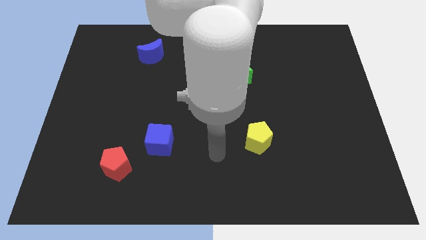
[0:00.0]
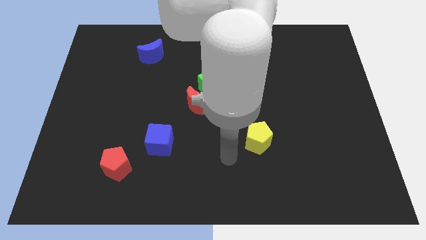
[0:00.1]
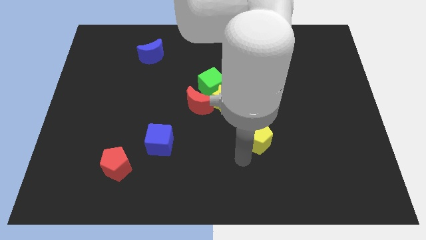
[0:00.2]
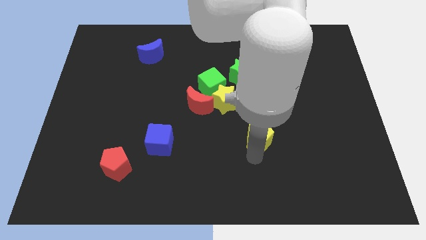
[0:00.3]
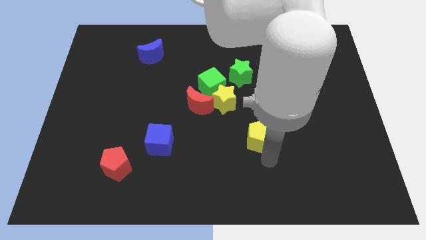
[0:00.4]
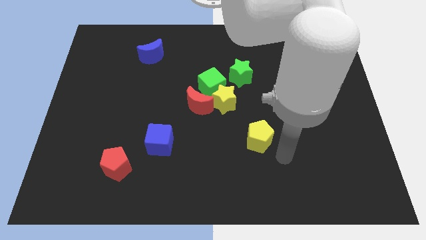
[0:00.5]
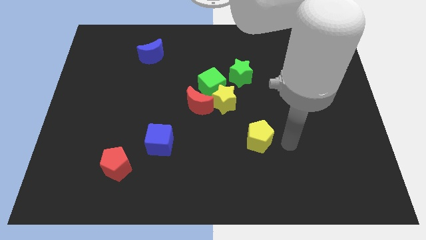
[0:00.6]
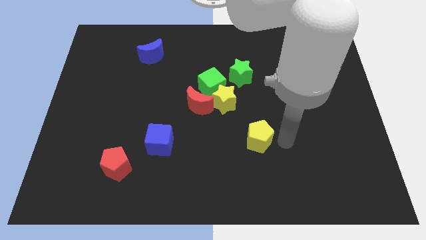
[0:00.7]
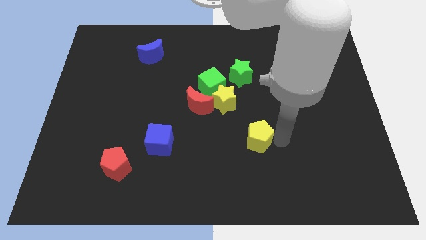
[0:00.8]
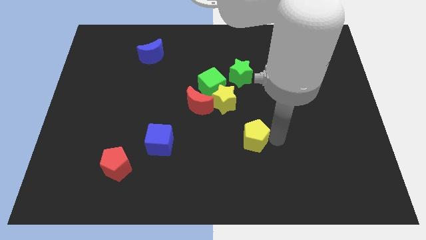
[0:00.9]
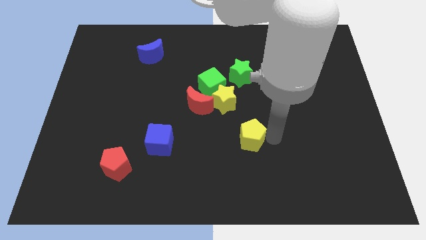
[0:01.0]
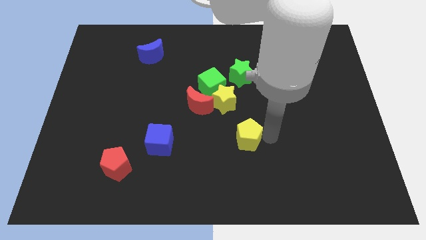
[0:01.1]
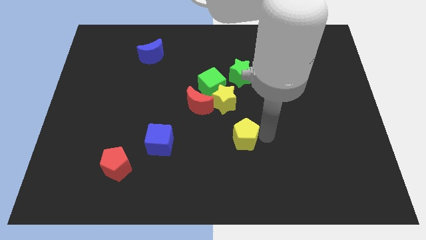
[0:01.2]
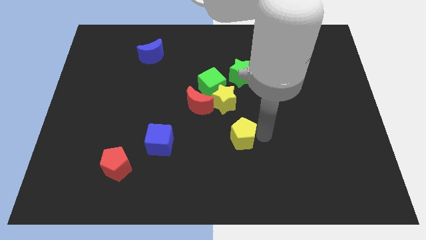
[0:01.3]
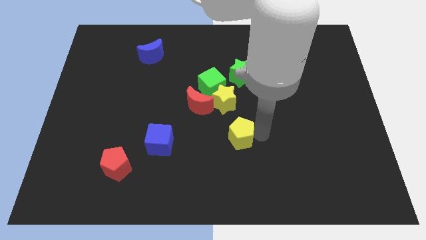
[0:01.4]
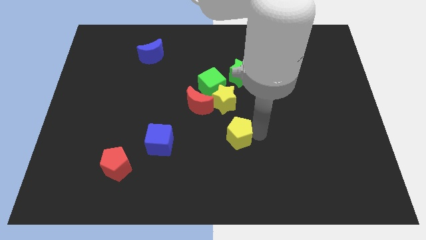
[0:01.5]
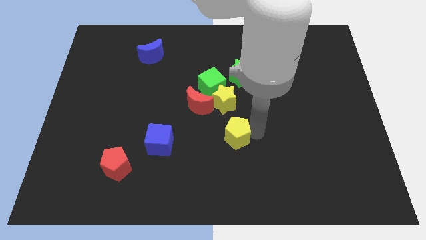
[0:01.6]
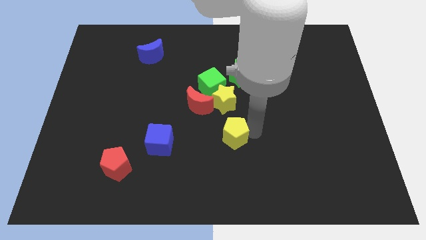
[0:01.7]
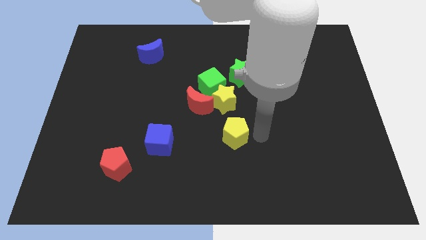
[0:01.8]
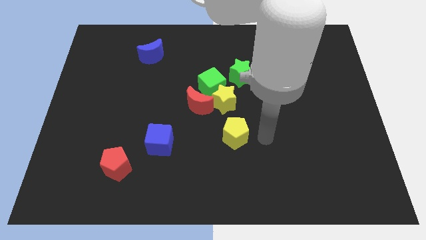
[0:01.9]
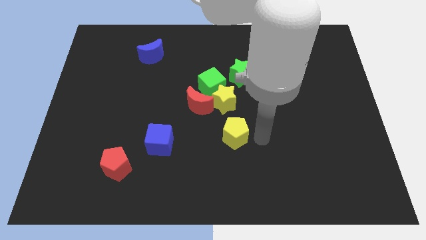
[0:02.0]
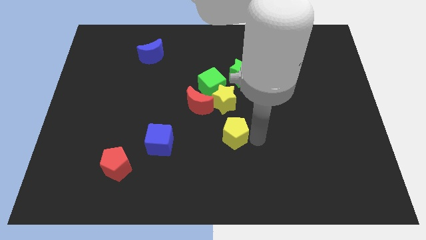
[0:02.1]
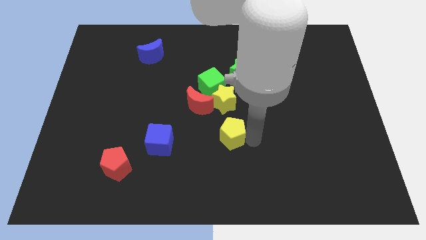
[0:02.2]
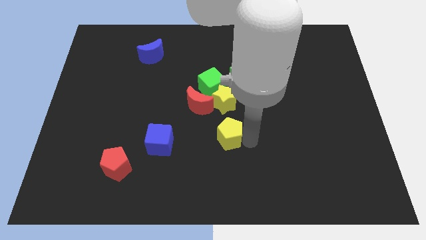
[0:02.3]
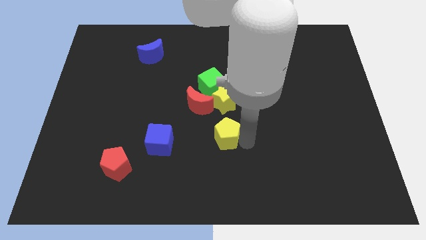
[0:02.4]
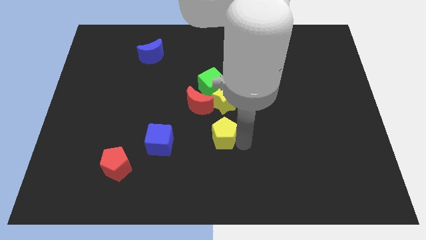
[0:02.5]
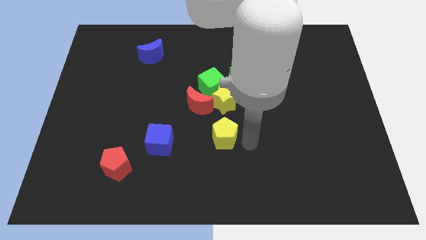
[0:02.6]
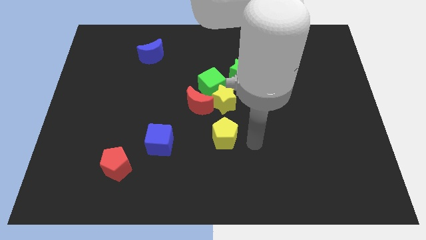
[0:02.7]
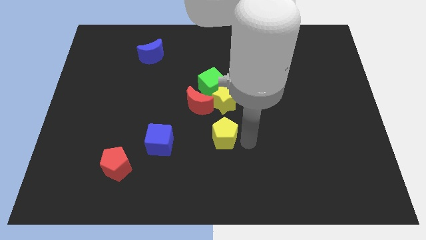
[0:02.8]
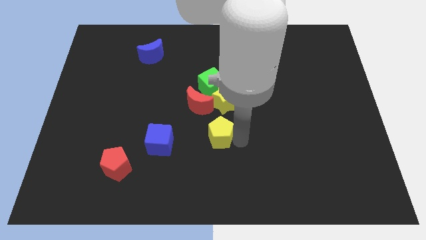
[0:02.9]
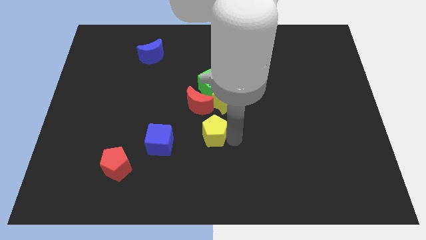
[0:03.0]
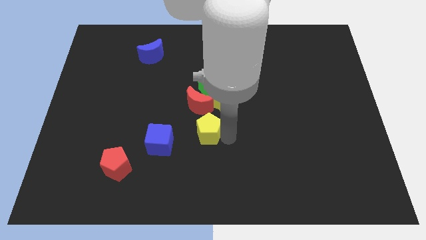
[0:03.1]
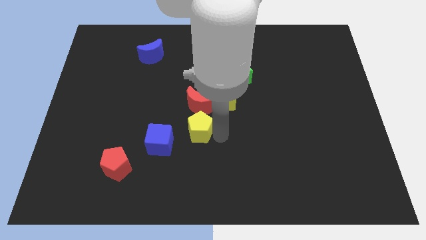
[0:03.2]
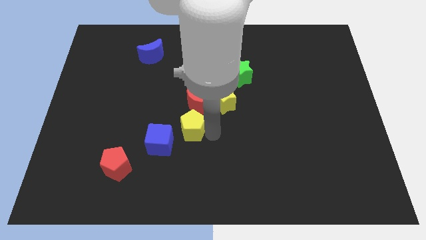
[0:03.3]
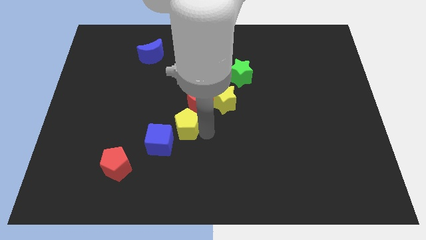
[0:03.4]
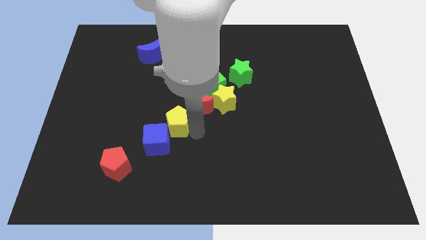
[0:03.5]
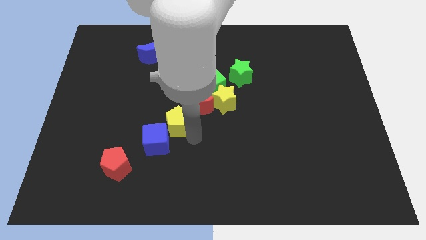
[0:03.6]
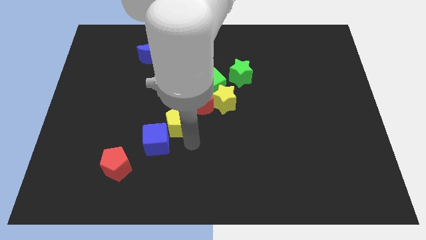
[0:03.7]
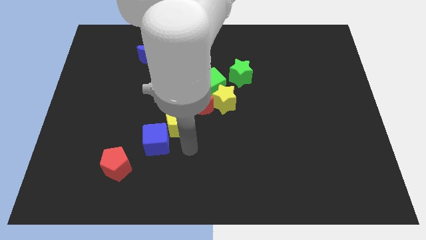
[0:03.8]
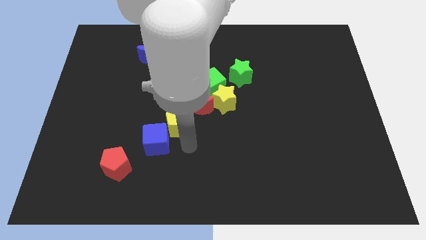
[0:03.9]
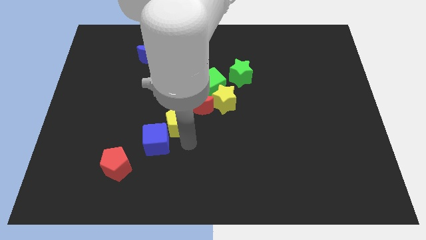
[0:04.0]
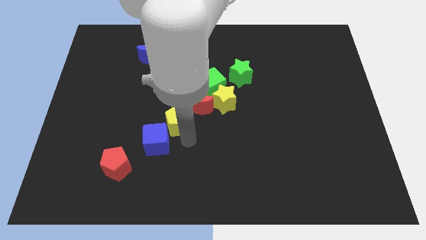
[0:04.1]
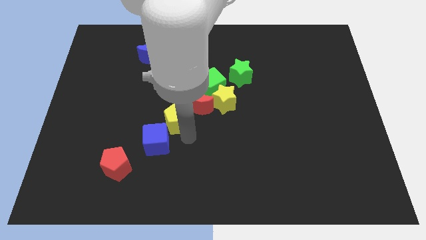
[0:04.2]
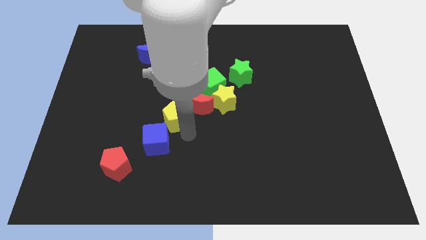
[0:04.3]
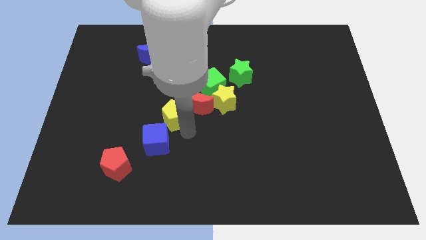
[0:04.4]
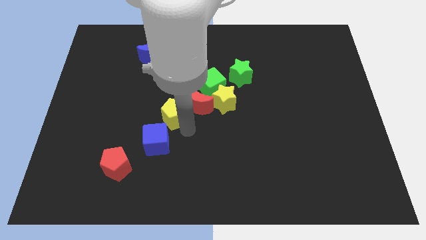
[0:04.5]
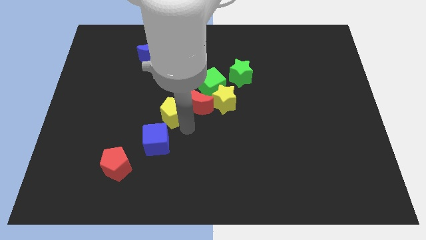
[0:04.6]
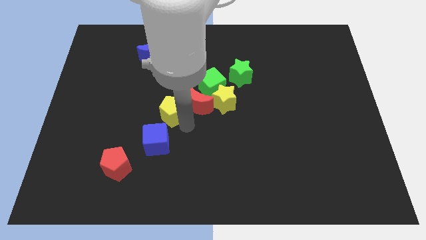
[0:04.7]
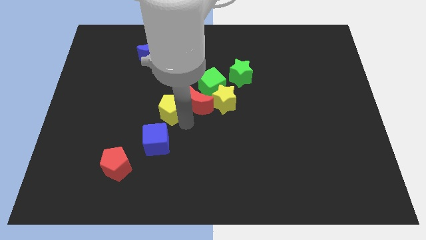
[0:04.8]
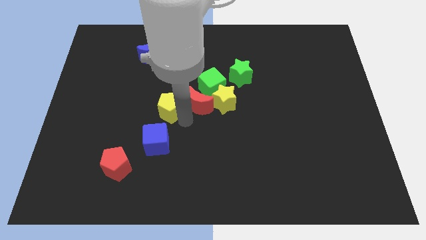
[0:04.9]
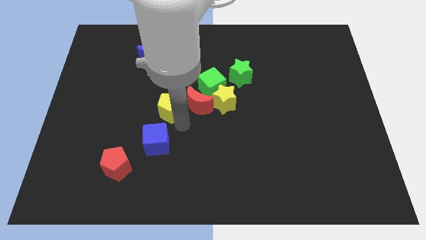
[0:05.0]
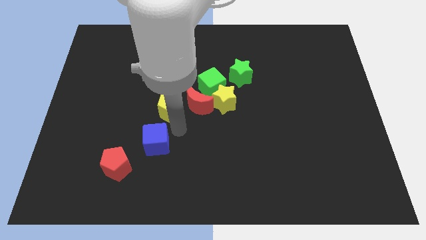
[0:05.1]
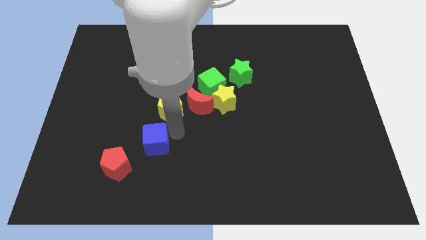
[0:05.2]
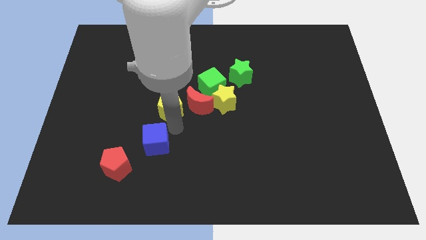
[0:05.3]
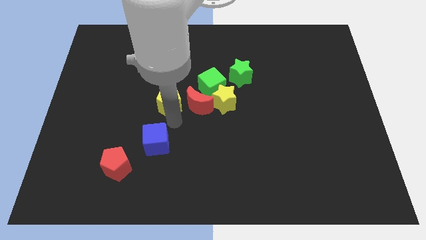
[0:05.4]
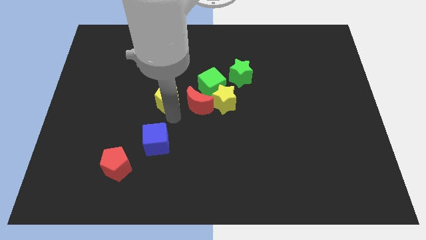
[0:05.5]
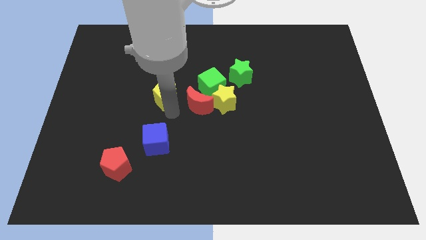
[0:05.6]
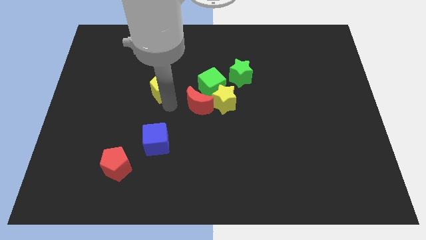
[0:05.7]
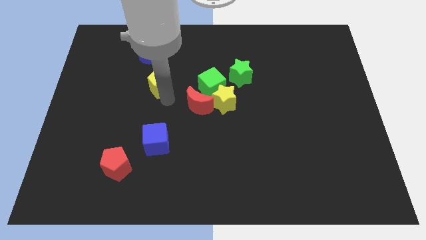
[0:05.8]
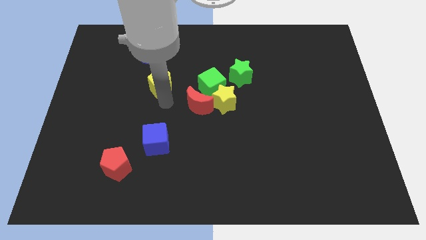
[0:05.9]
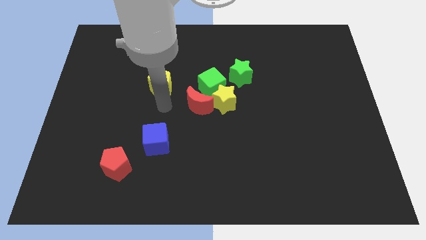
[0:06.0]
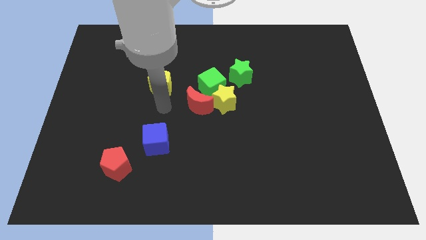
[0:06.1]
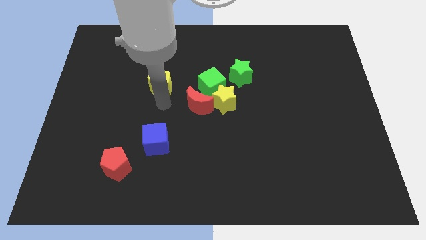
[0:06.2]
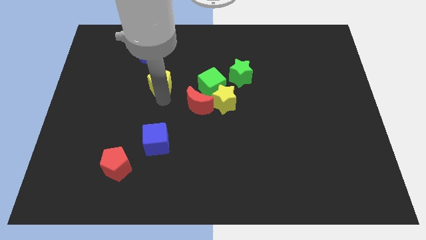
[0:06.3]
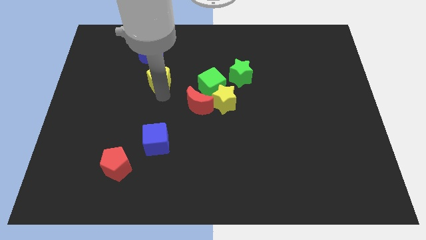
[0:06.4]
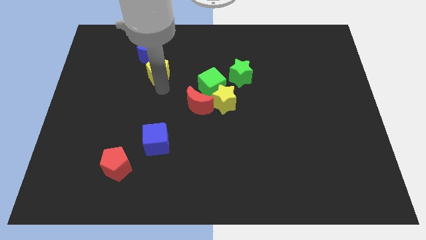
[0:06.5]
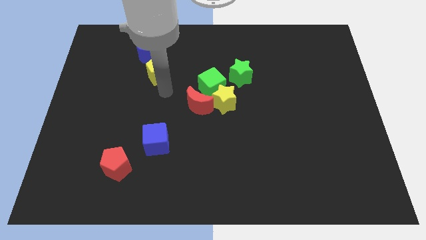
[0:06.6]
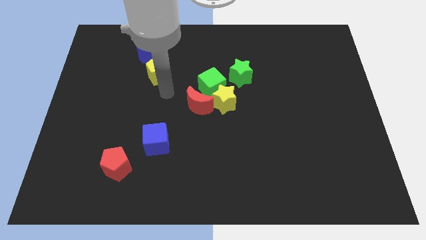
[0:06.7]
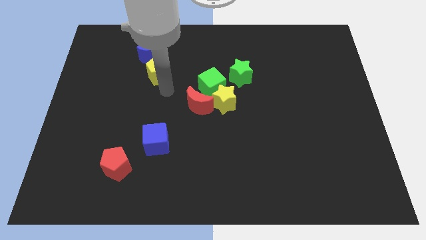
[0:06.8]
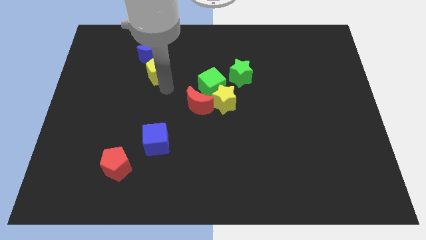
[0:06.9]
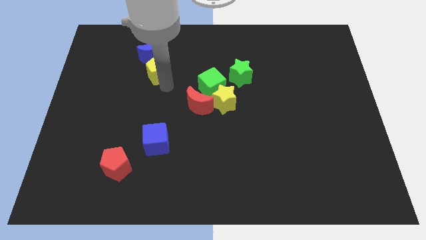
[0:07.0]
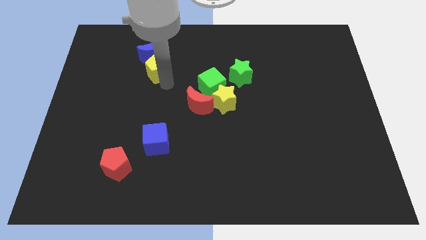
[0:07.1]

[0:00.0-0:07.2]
push the yellow pentagon to the blue moon

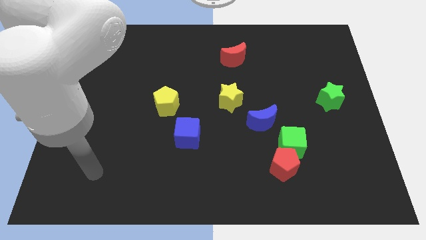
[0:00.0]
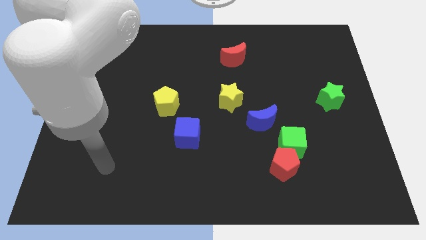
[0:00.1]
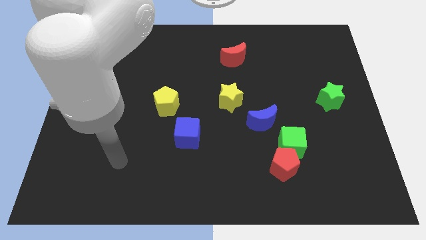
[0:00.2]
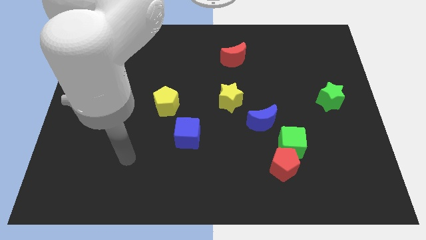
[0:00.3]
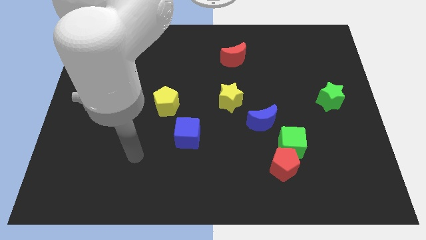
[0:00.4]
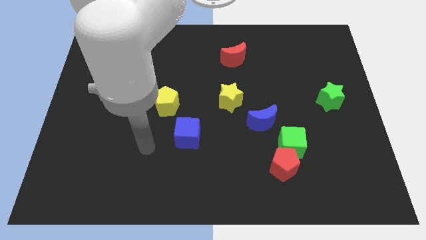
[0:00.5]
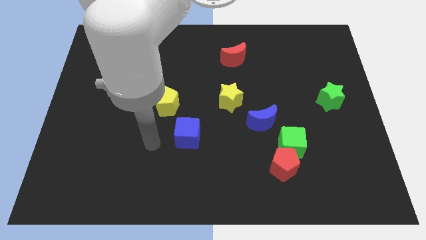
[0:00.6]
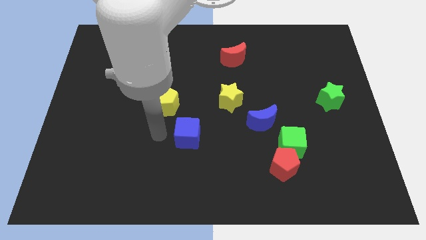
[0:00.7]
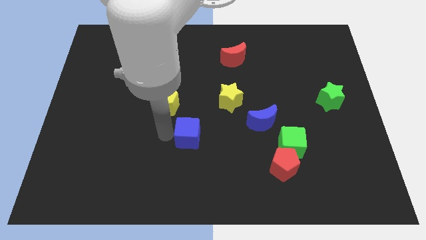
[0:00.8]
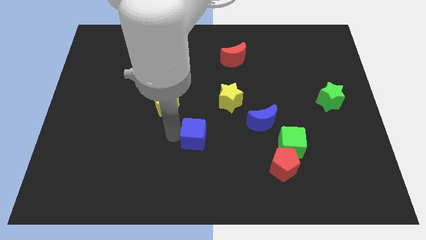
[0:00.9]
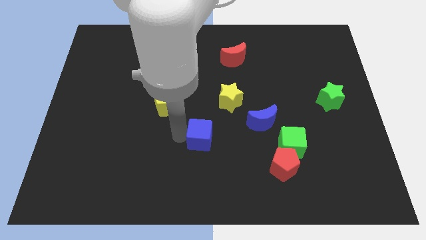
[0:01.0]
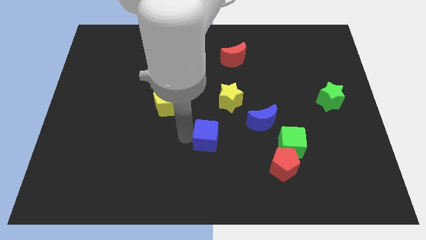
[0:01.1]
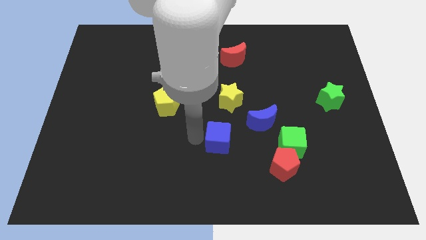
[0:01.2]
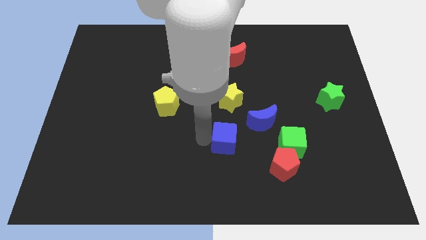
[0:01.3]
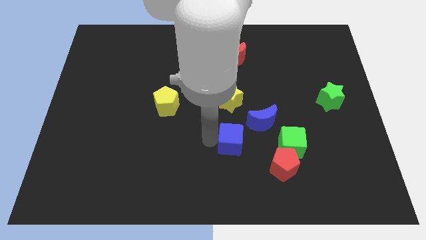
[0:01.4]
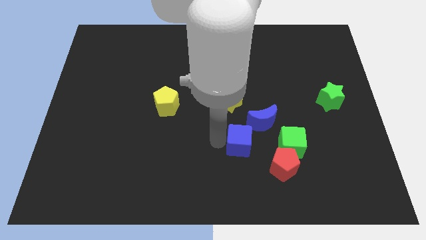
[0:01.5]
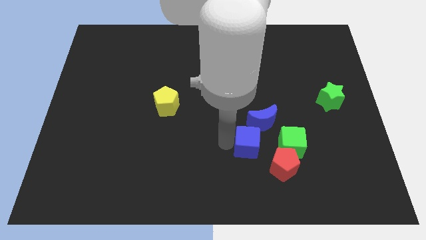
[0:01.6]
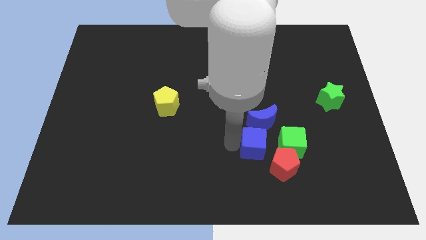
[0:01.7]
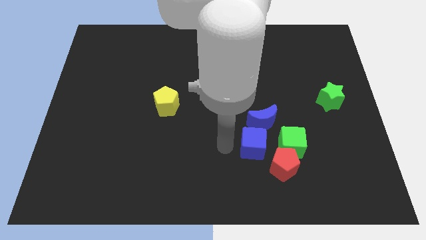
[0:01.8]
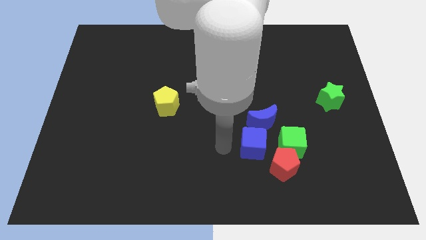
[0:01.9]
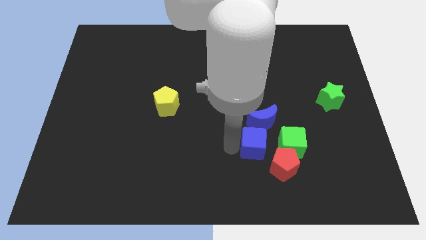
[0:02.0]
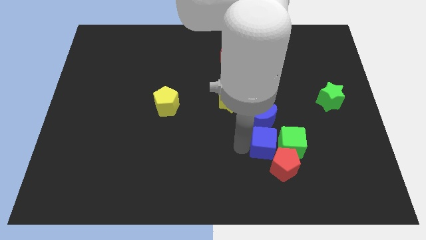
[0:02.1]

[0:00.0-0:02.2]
put the blue cube close to the green cube
